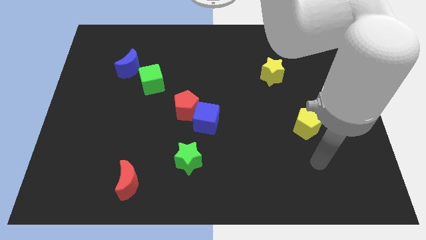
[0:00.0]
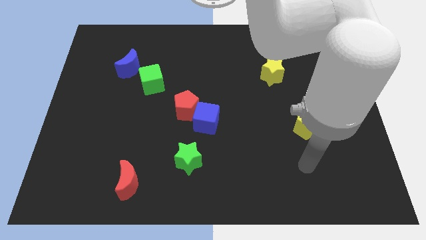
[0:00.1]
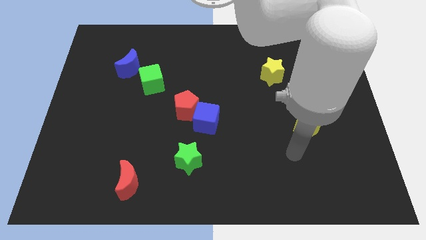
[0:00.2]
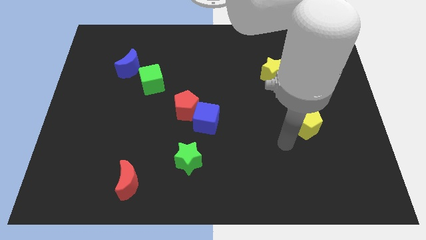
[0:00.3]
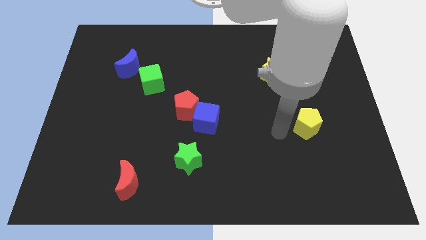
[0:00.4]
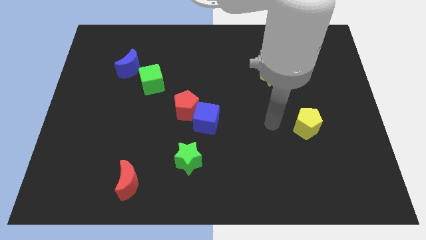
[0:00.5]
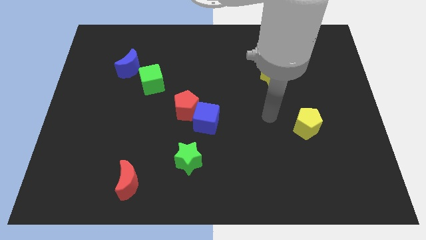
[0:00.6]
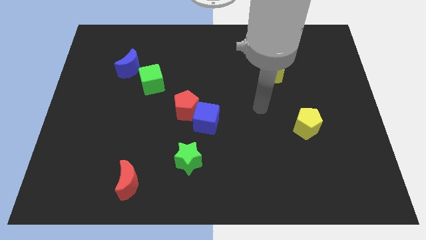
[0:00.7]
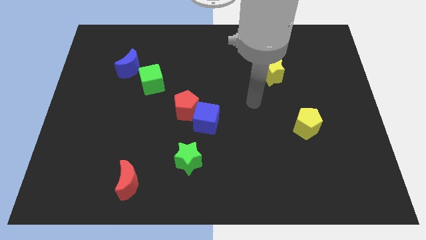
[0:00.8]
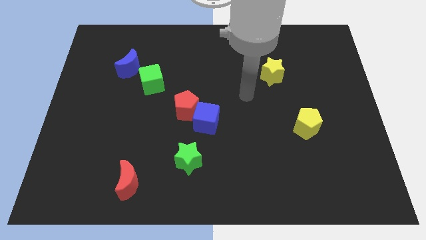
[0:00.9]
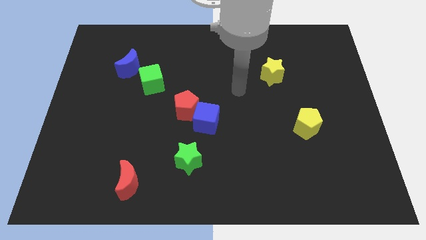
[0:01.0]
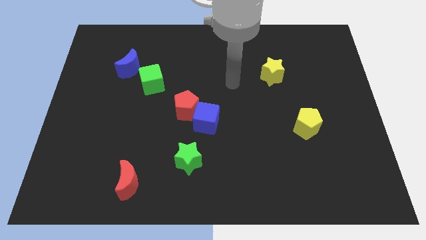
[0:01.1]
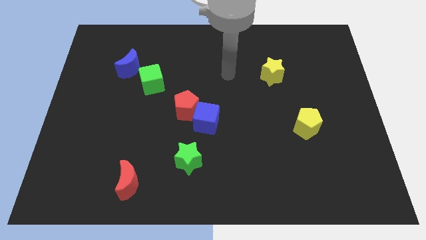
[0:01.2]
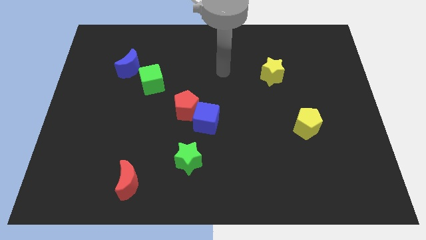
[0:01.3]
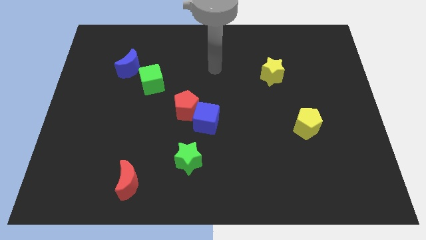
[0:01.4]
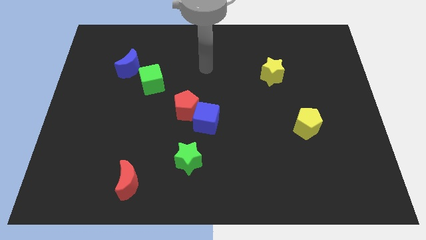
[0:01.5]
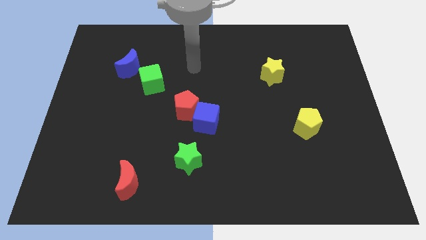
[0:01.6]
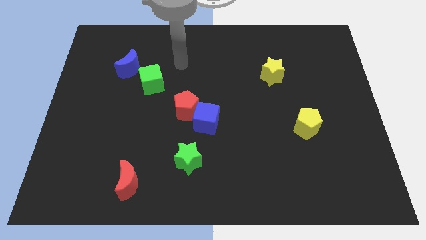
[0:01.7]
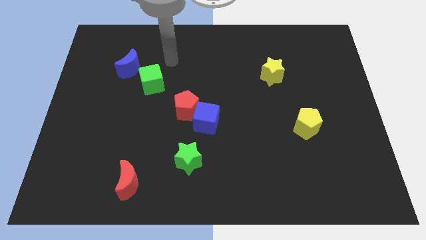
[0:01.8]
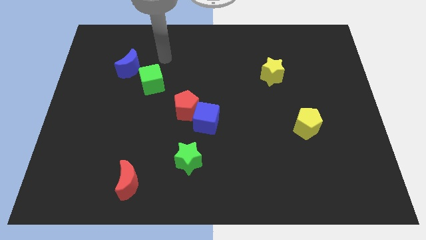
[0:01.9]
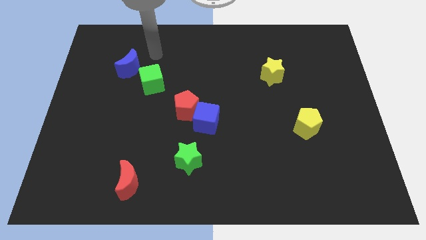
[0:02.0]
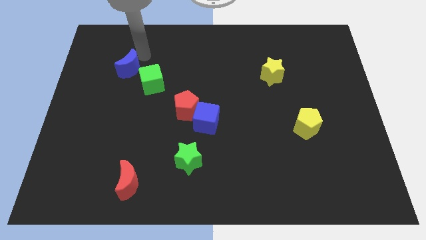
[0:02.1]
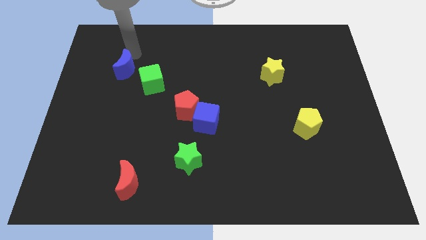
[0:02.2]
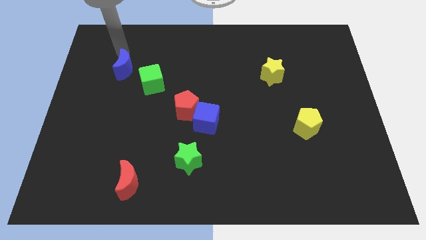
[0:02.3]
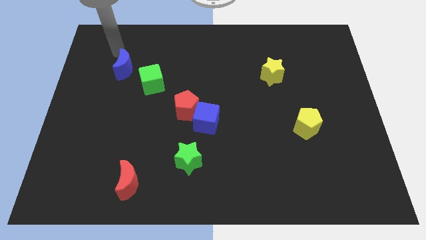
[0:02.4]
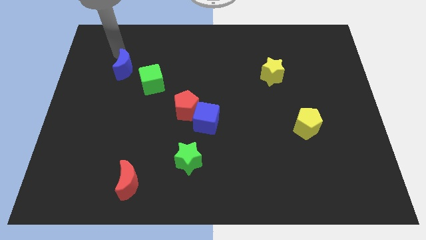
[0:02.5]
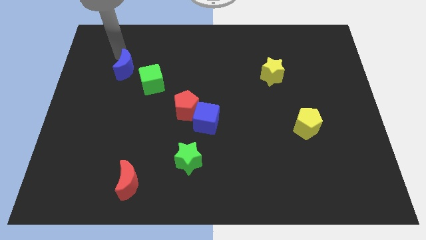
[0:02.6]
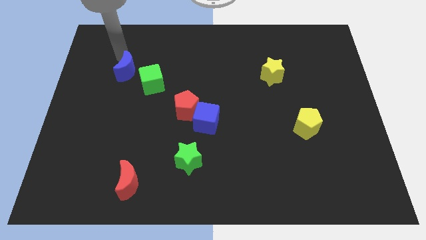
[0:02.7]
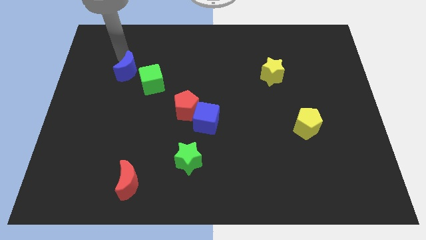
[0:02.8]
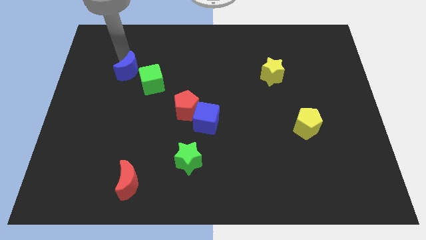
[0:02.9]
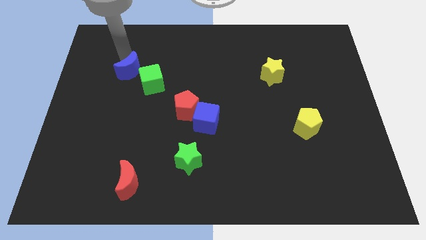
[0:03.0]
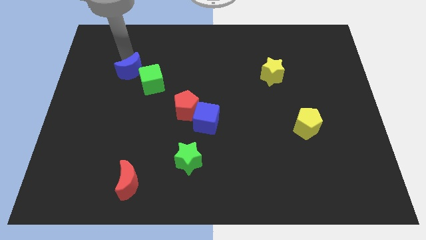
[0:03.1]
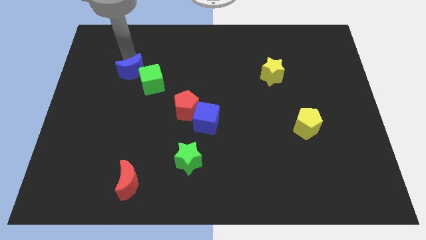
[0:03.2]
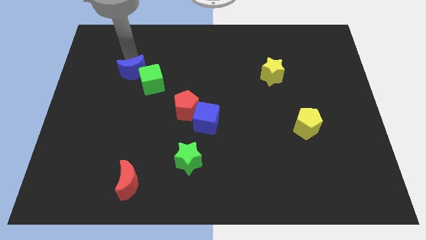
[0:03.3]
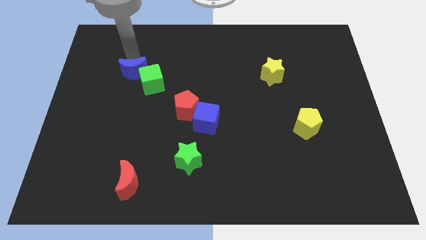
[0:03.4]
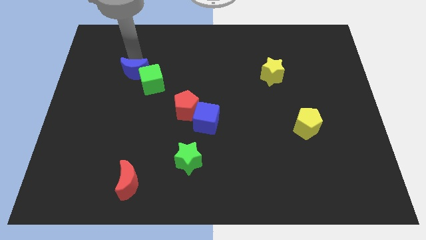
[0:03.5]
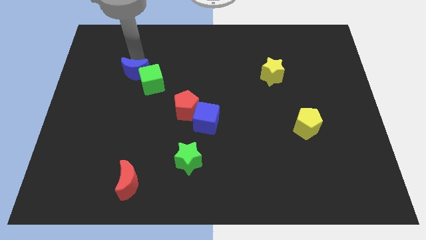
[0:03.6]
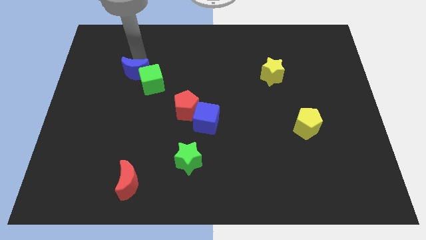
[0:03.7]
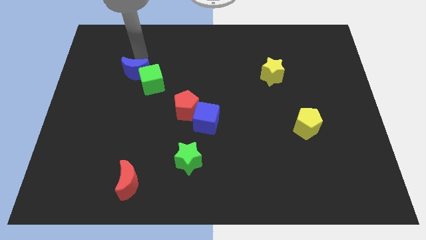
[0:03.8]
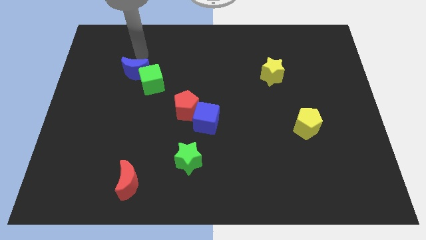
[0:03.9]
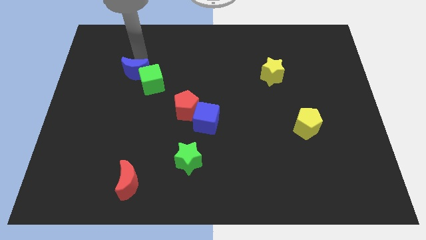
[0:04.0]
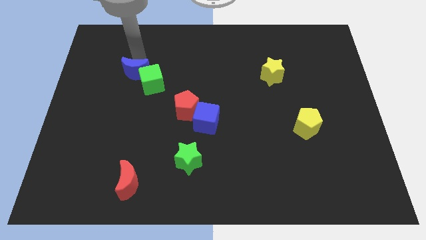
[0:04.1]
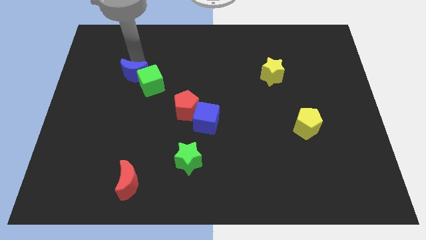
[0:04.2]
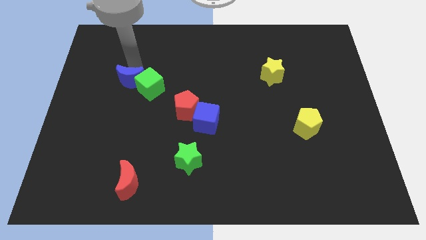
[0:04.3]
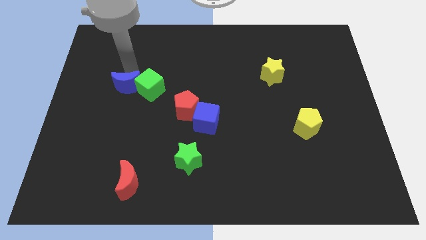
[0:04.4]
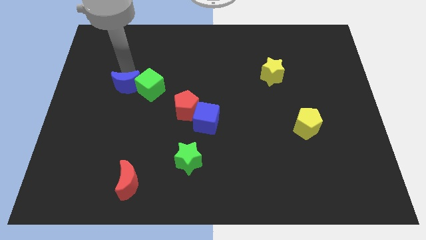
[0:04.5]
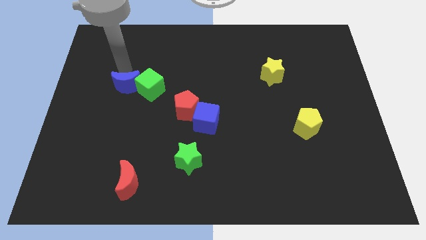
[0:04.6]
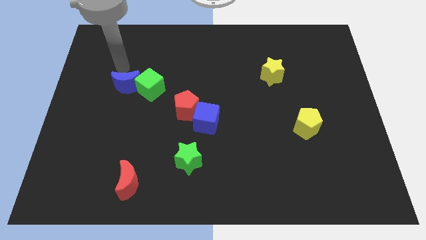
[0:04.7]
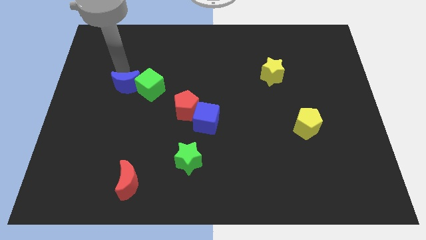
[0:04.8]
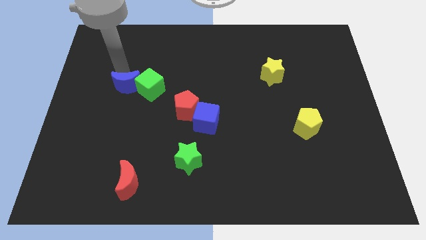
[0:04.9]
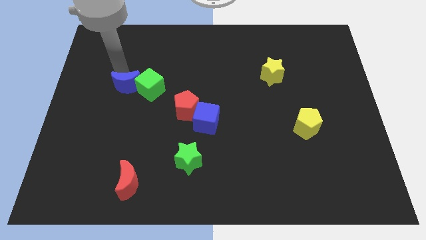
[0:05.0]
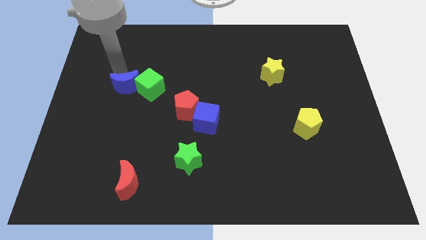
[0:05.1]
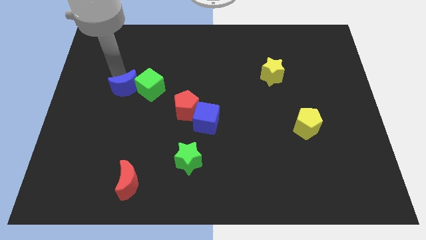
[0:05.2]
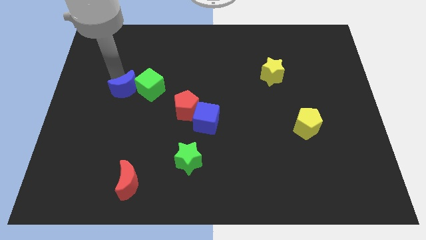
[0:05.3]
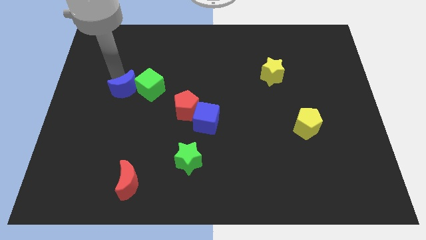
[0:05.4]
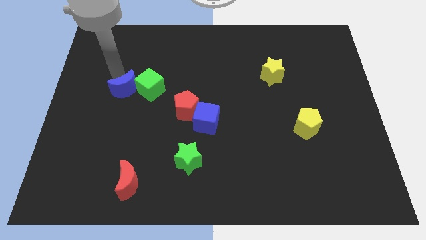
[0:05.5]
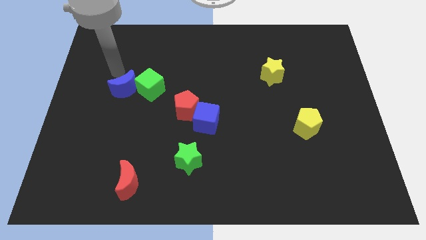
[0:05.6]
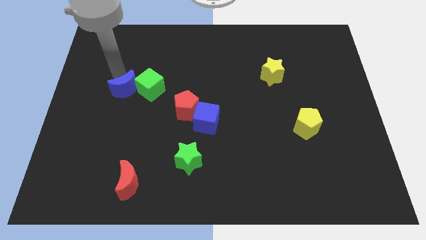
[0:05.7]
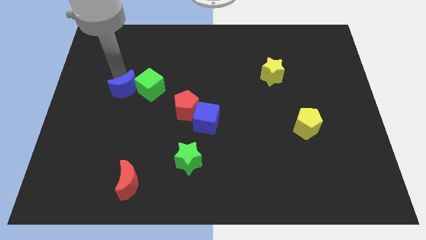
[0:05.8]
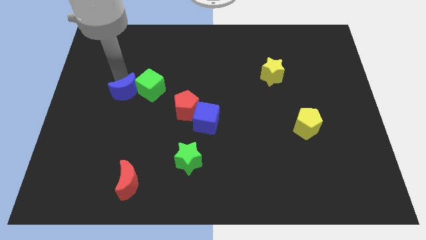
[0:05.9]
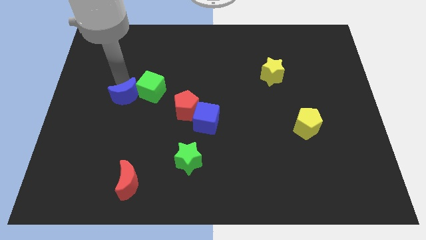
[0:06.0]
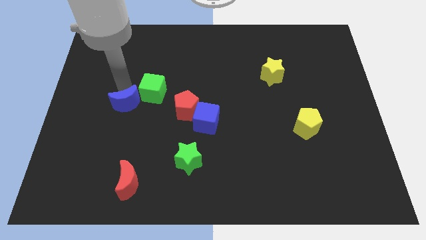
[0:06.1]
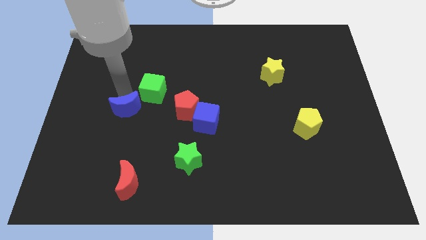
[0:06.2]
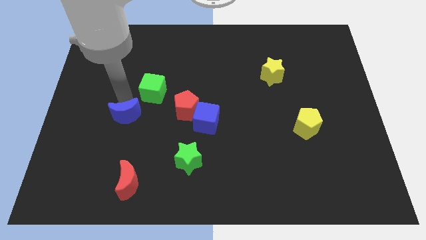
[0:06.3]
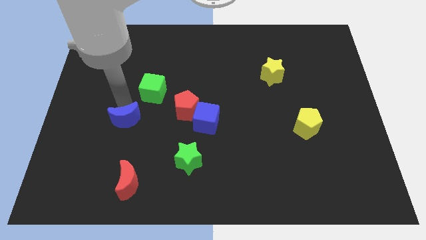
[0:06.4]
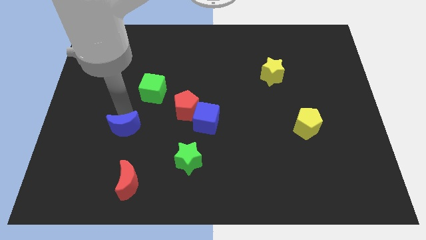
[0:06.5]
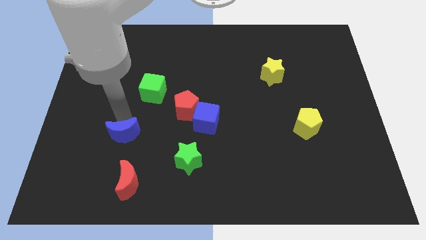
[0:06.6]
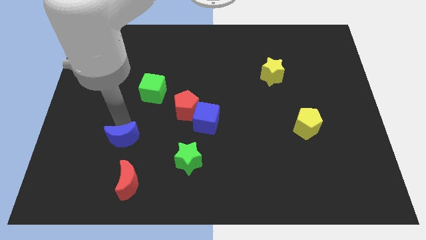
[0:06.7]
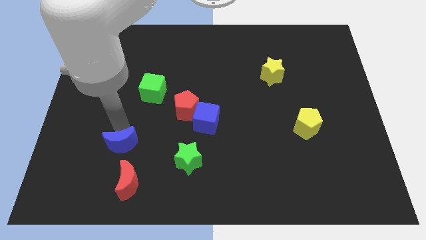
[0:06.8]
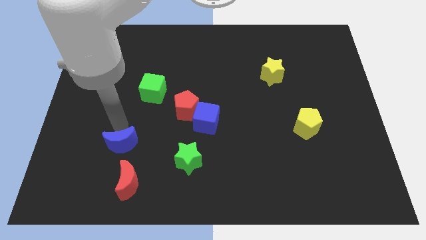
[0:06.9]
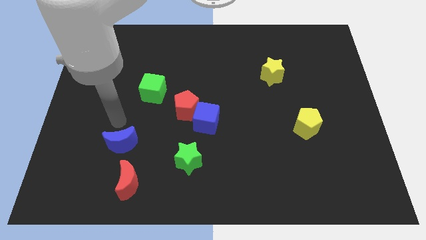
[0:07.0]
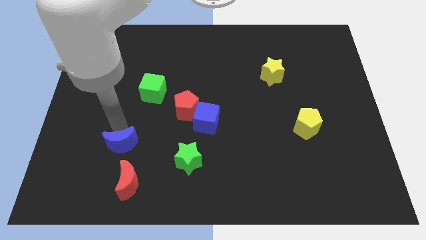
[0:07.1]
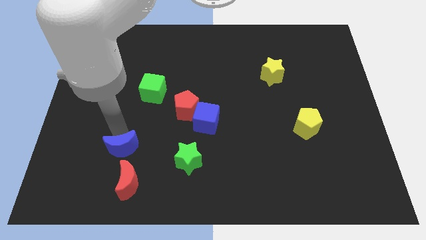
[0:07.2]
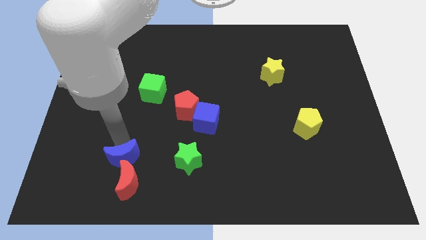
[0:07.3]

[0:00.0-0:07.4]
slide the blue moon next to the red moon
